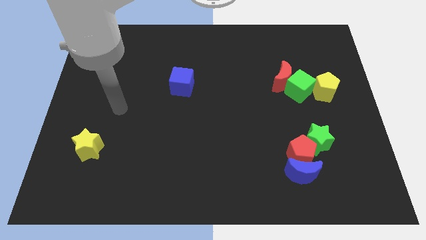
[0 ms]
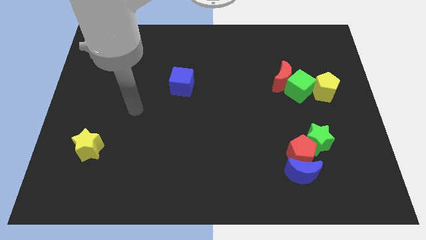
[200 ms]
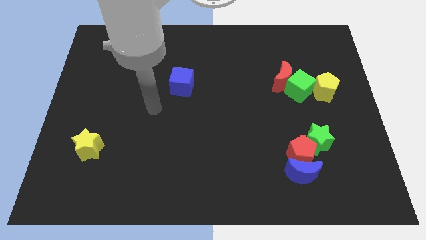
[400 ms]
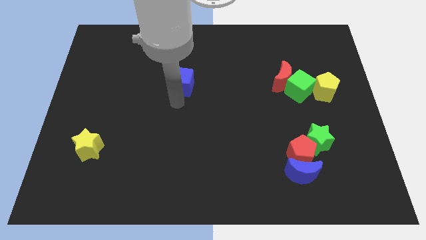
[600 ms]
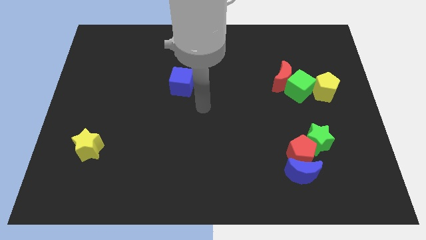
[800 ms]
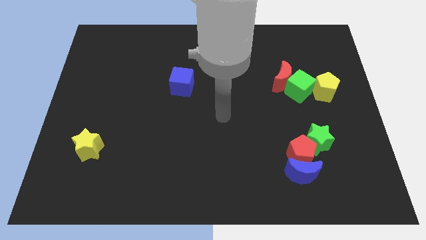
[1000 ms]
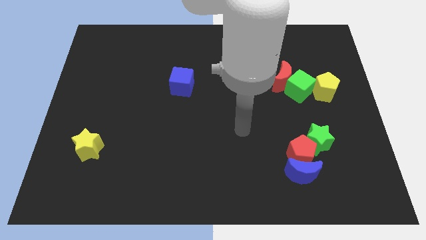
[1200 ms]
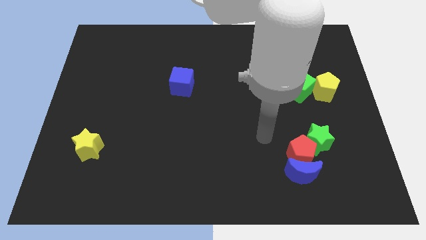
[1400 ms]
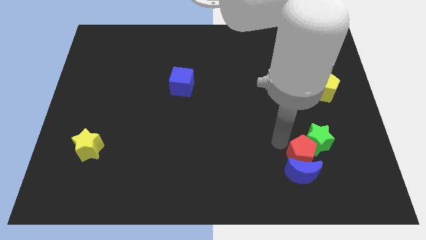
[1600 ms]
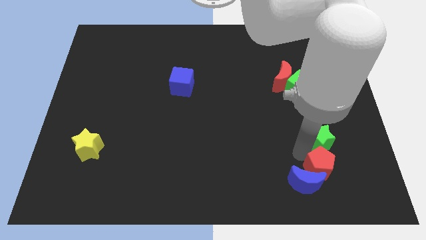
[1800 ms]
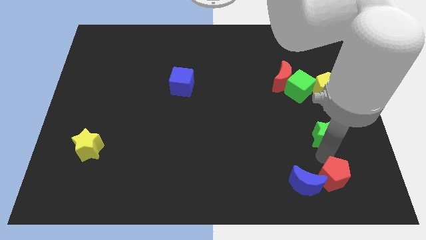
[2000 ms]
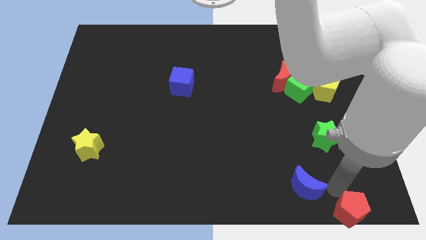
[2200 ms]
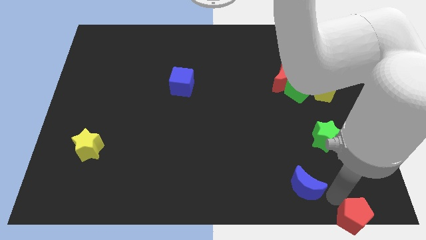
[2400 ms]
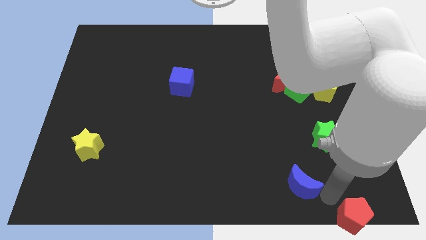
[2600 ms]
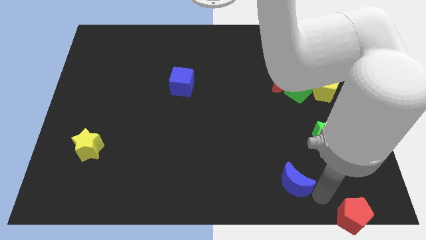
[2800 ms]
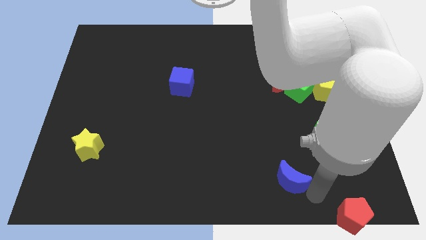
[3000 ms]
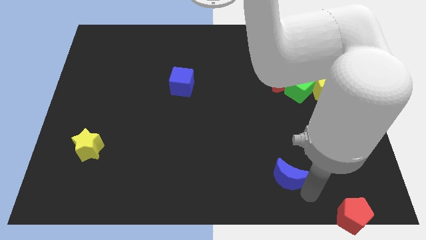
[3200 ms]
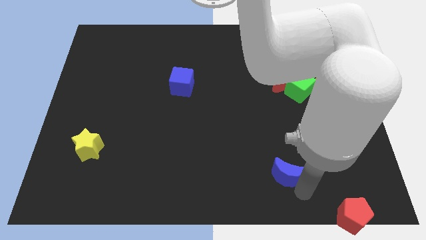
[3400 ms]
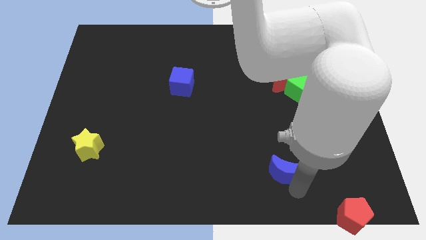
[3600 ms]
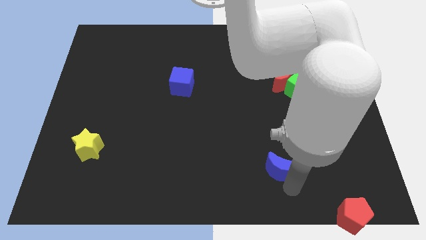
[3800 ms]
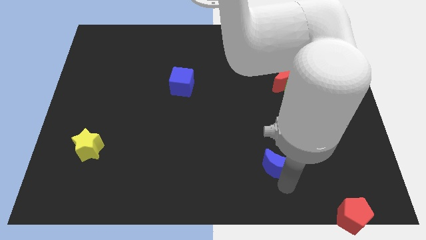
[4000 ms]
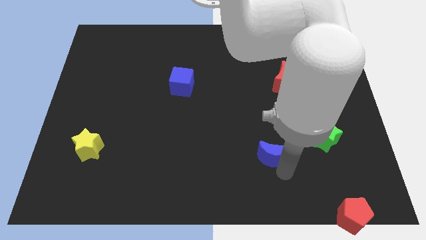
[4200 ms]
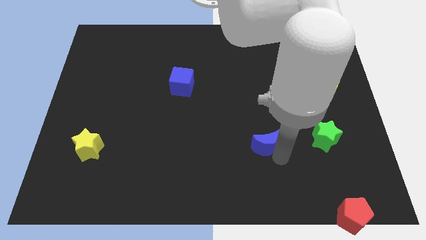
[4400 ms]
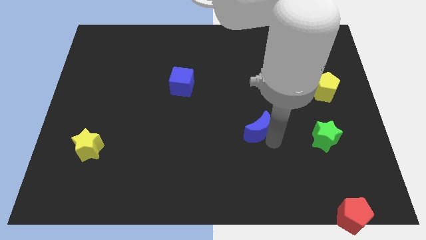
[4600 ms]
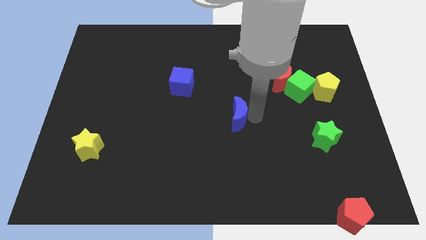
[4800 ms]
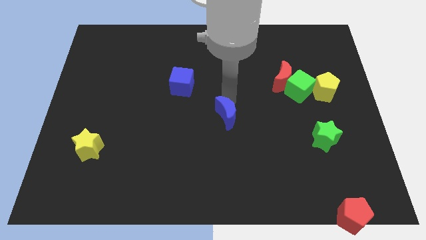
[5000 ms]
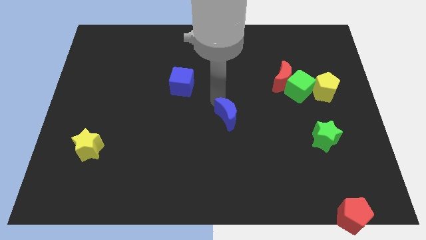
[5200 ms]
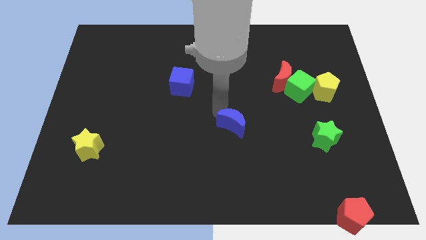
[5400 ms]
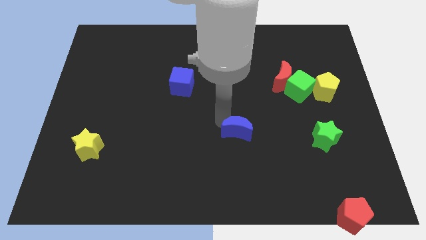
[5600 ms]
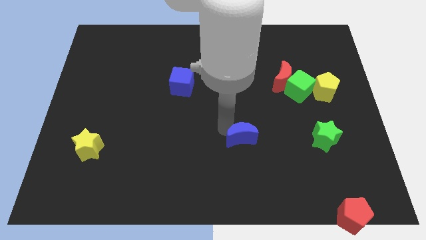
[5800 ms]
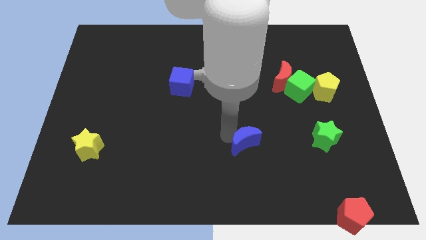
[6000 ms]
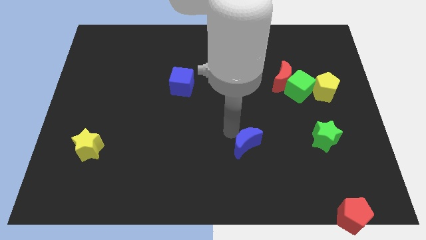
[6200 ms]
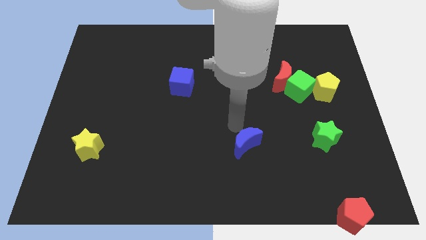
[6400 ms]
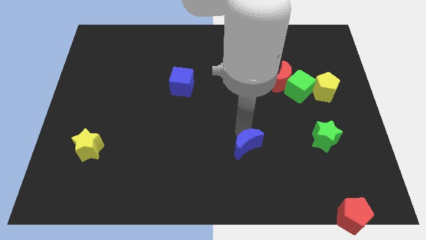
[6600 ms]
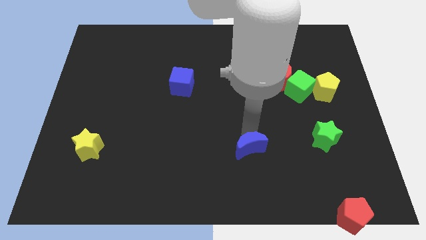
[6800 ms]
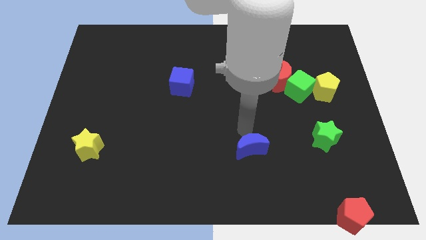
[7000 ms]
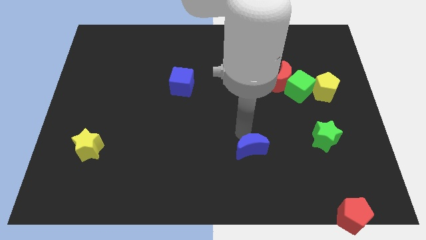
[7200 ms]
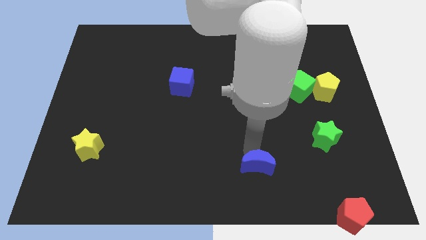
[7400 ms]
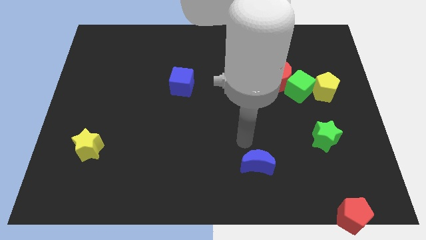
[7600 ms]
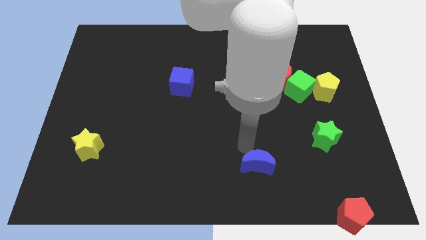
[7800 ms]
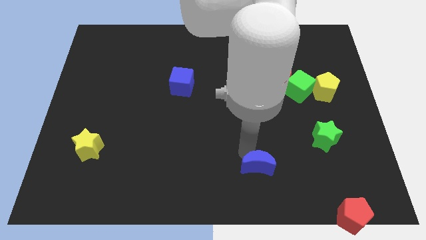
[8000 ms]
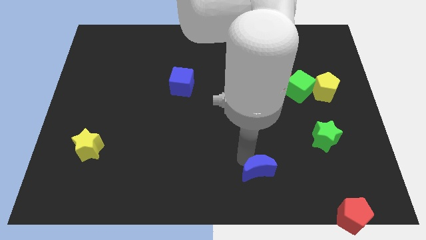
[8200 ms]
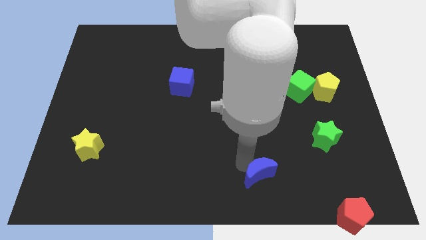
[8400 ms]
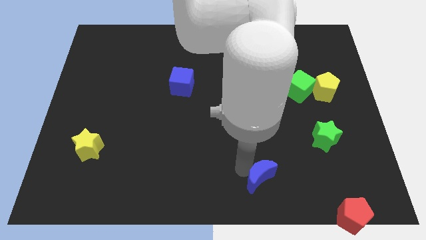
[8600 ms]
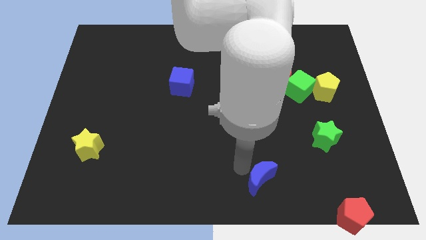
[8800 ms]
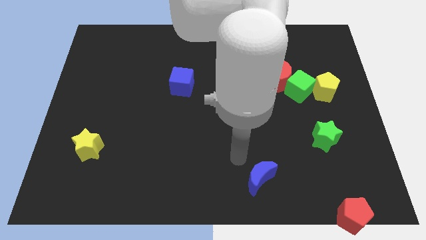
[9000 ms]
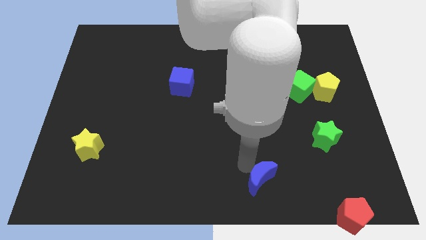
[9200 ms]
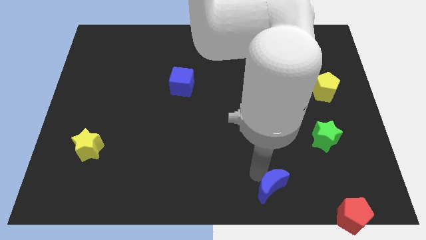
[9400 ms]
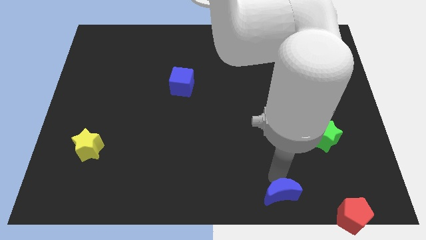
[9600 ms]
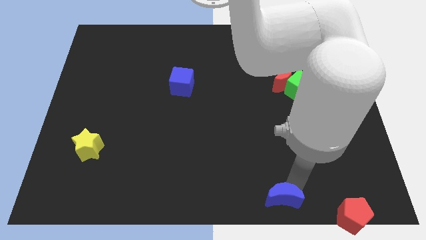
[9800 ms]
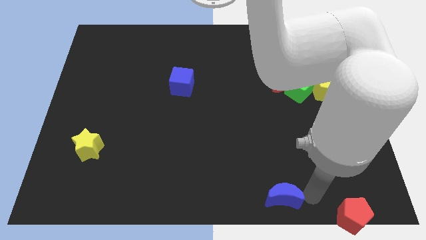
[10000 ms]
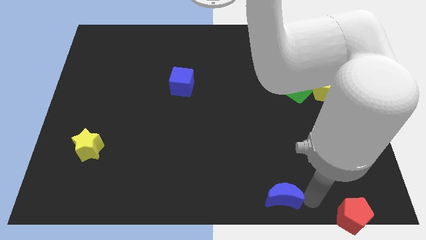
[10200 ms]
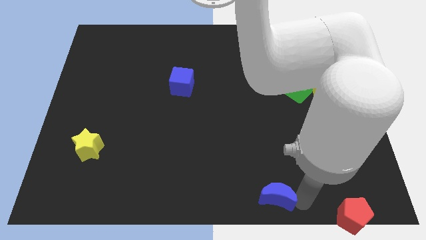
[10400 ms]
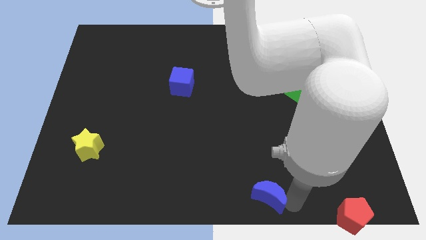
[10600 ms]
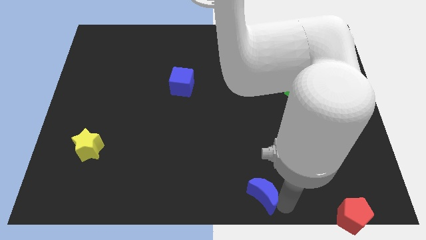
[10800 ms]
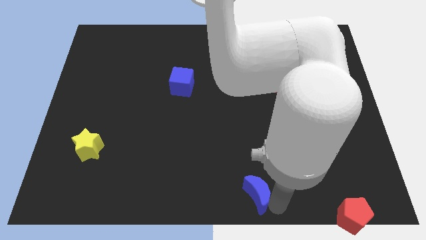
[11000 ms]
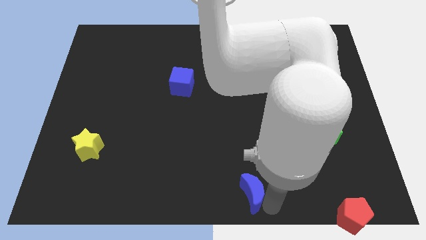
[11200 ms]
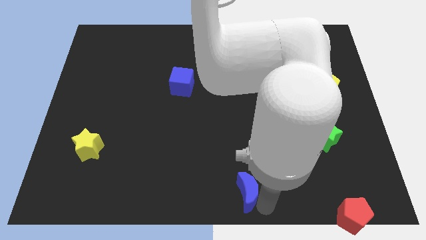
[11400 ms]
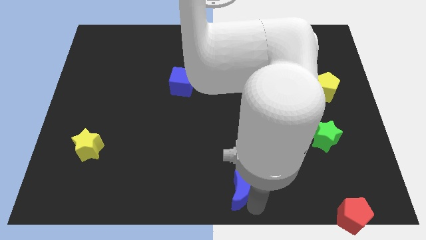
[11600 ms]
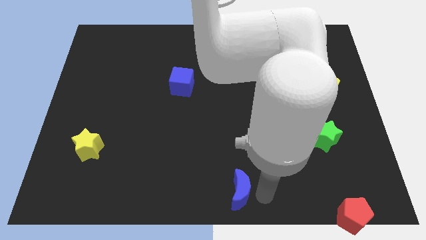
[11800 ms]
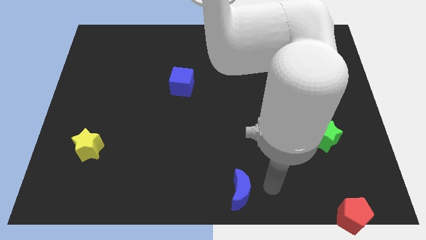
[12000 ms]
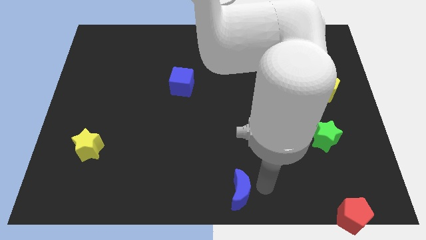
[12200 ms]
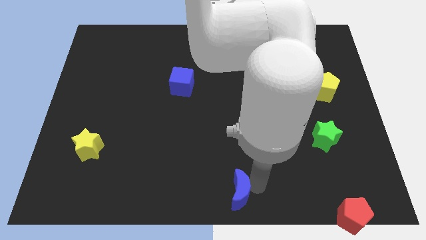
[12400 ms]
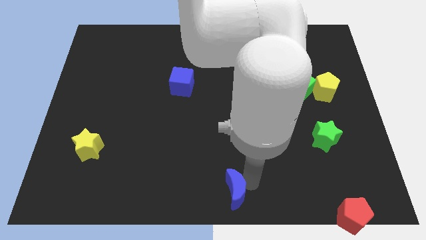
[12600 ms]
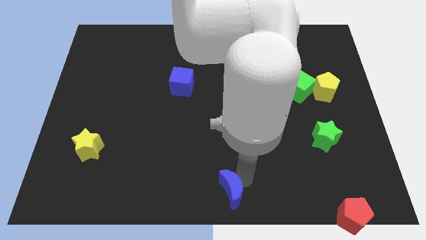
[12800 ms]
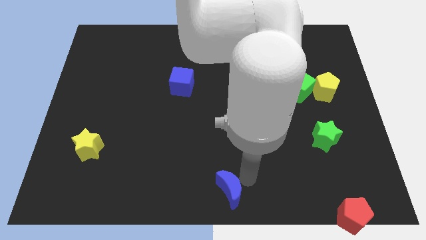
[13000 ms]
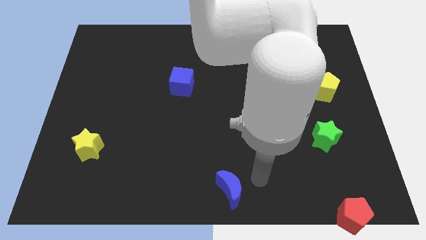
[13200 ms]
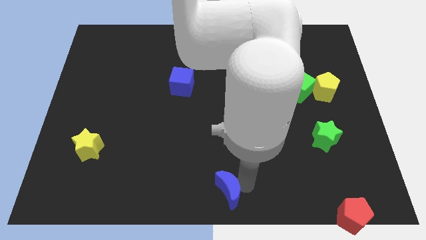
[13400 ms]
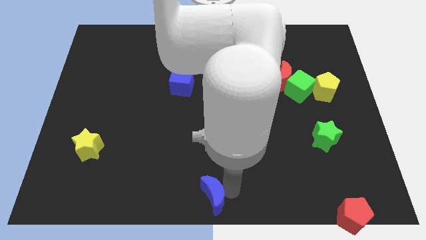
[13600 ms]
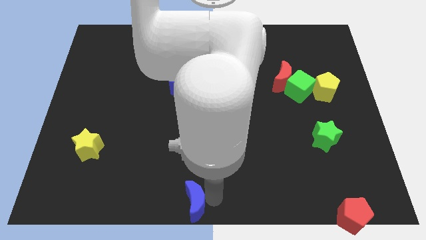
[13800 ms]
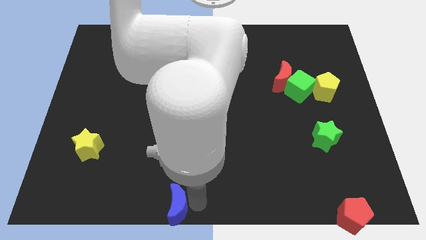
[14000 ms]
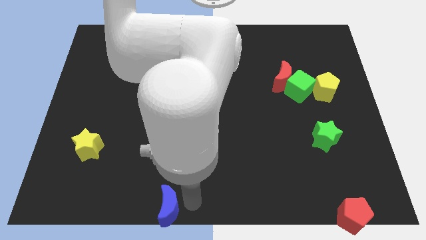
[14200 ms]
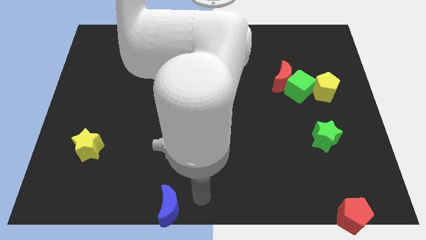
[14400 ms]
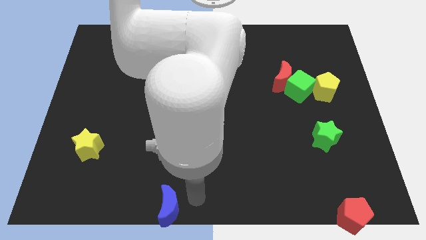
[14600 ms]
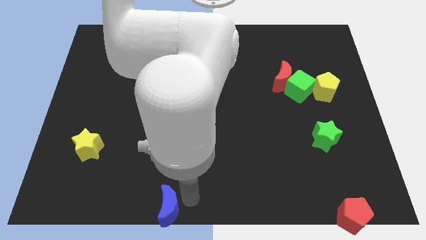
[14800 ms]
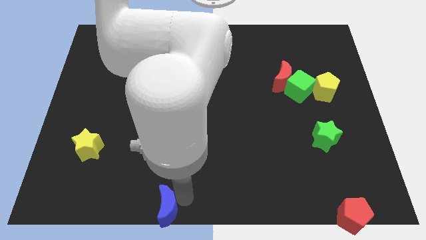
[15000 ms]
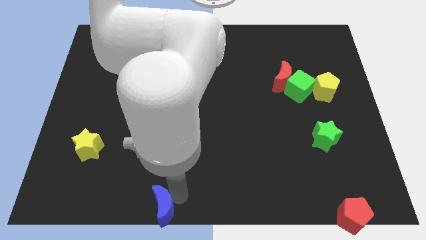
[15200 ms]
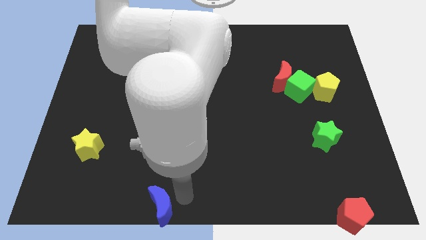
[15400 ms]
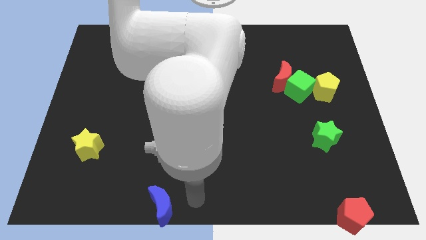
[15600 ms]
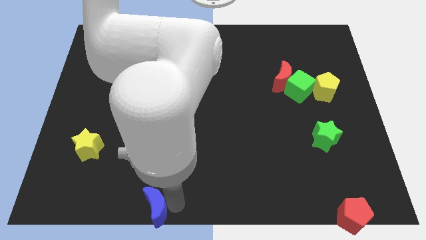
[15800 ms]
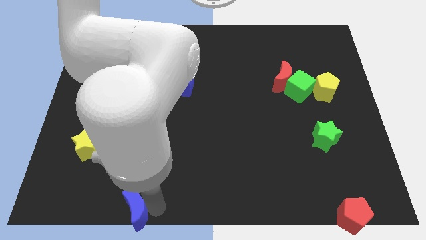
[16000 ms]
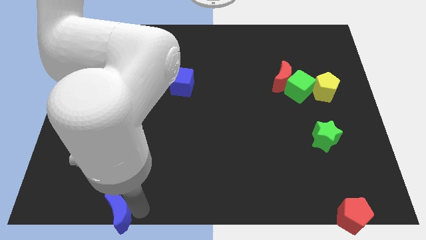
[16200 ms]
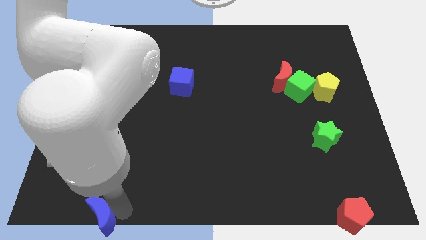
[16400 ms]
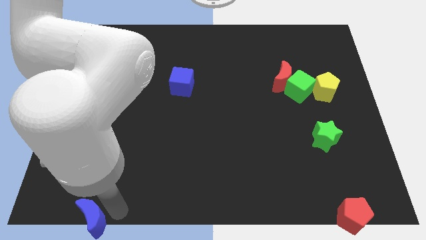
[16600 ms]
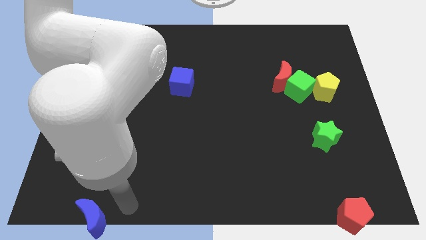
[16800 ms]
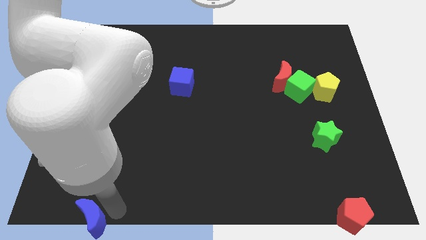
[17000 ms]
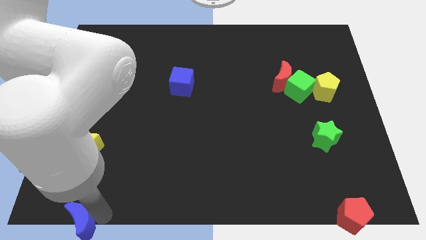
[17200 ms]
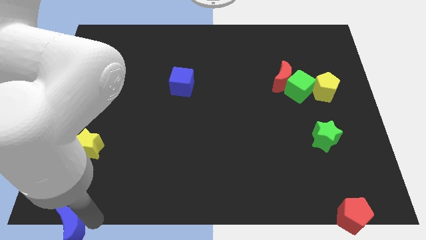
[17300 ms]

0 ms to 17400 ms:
put the blue moon to the bottom left of the board
